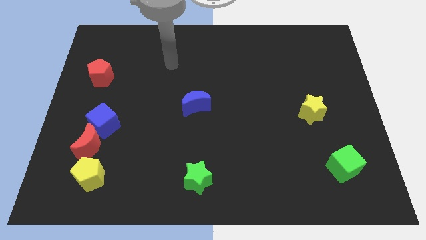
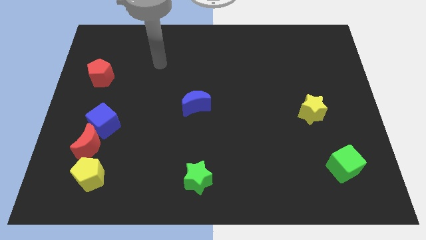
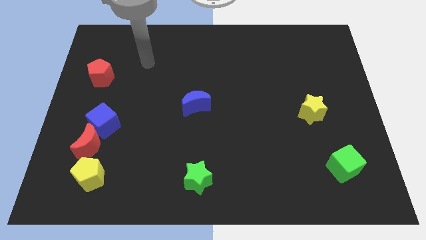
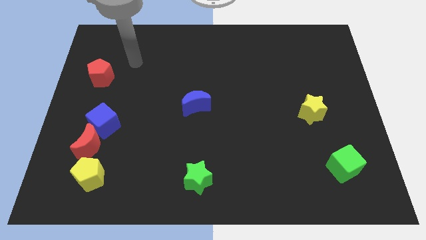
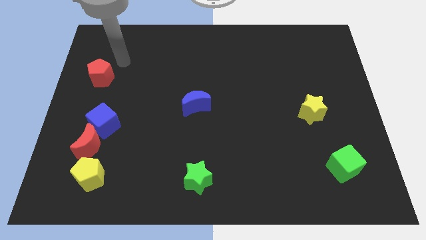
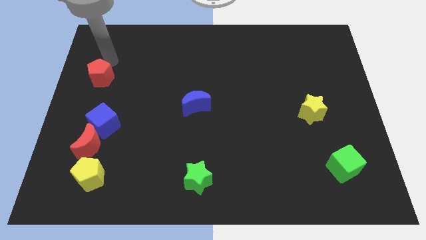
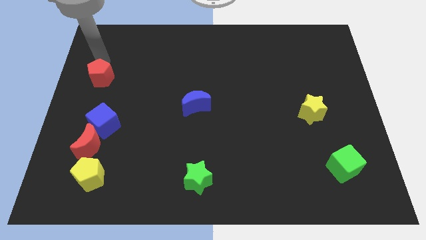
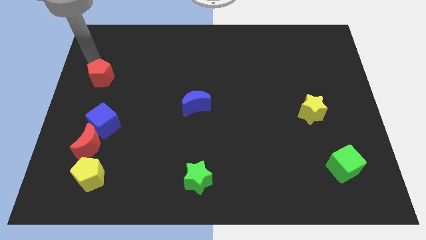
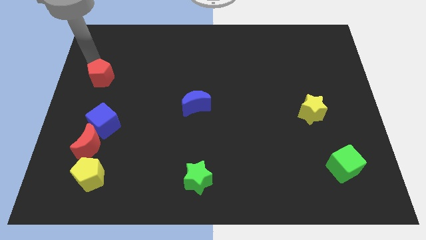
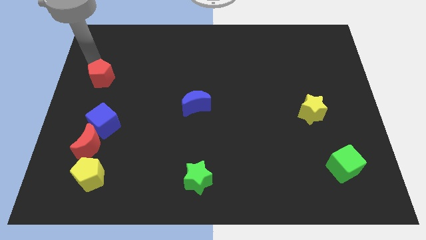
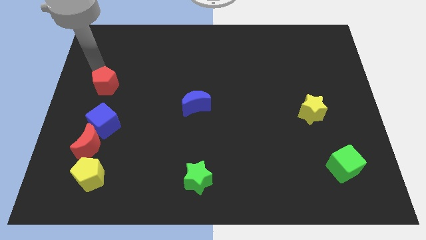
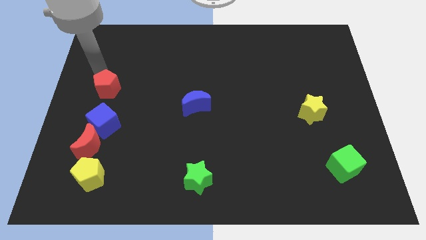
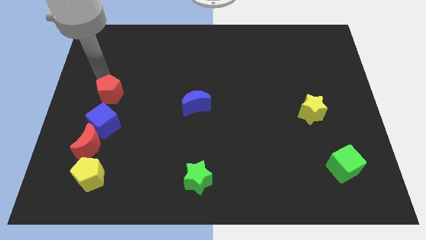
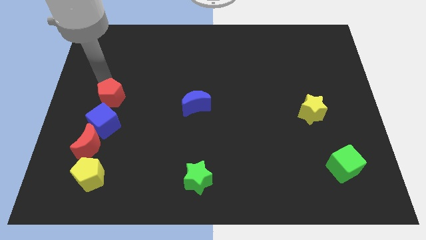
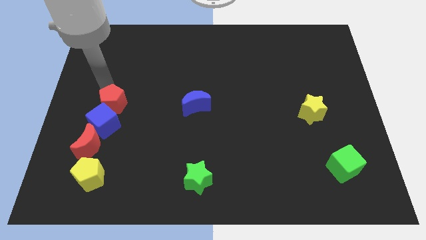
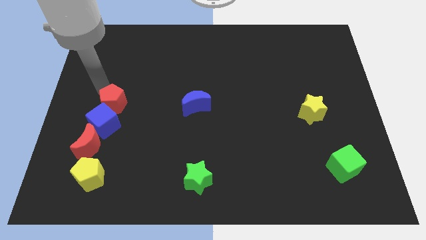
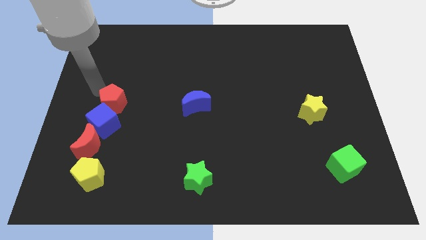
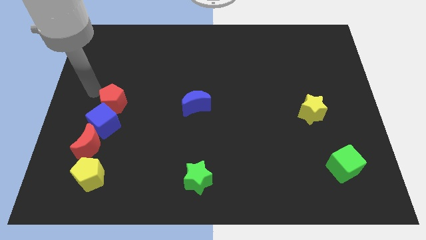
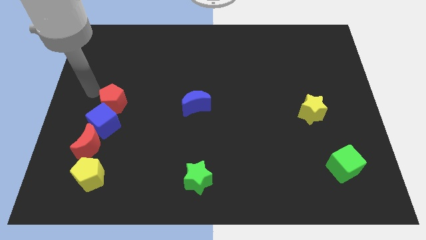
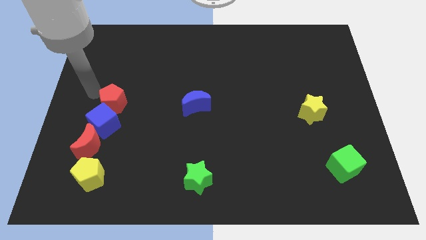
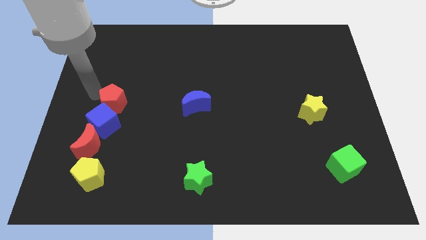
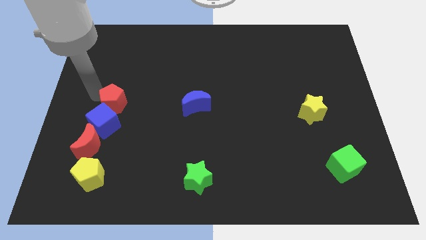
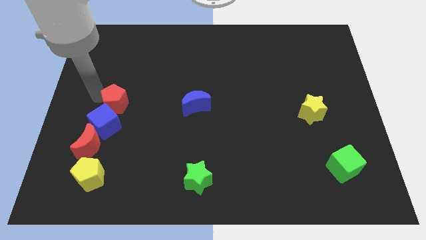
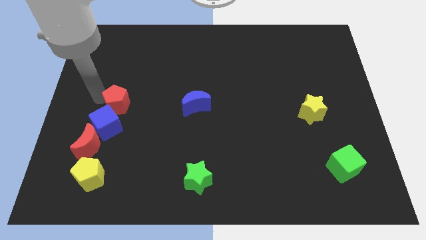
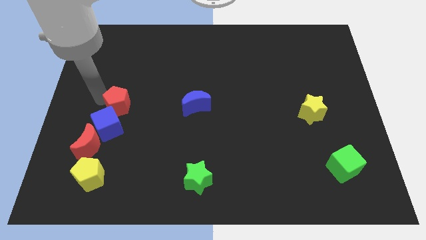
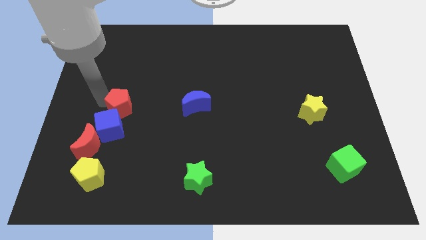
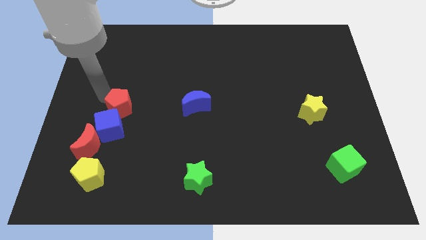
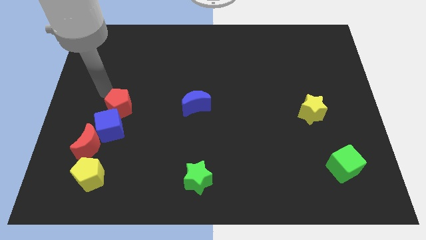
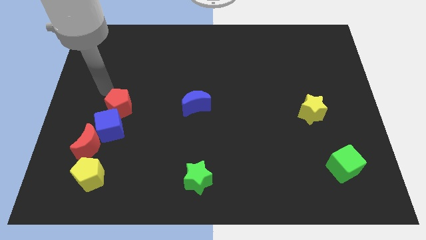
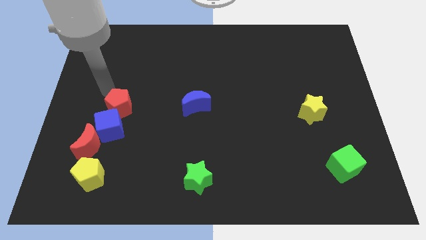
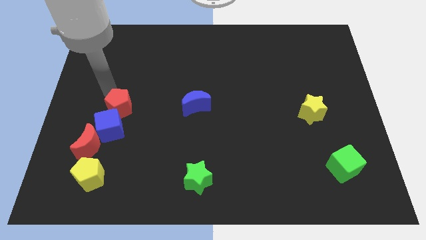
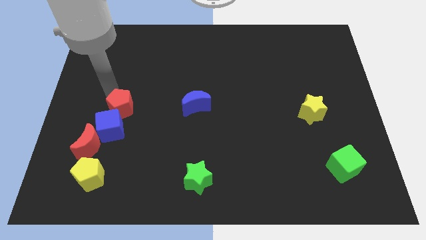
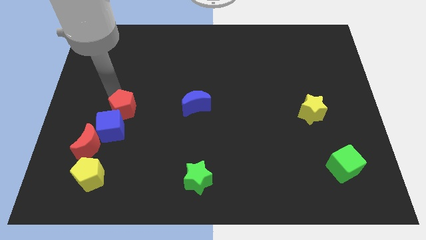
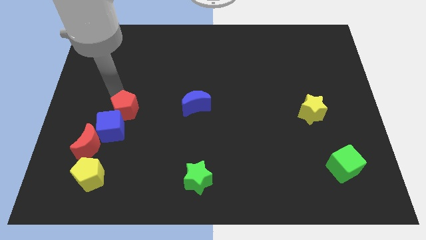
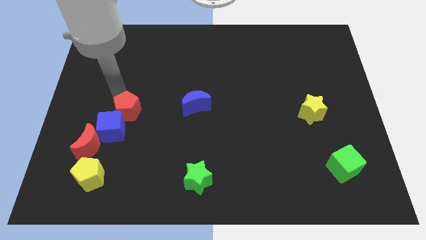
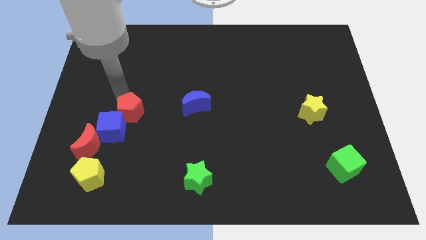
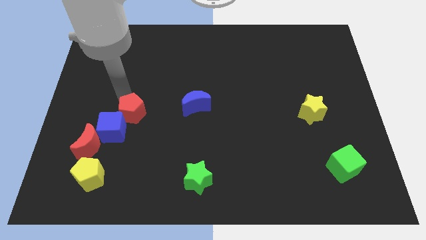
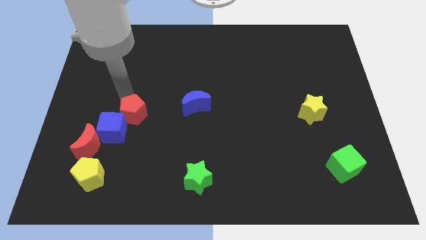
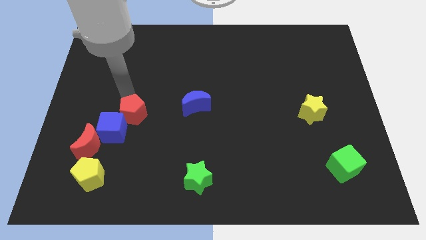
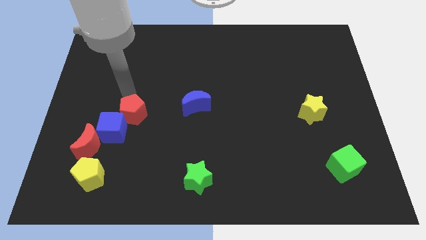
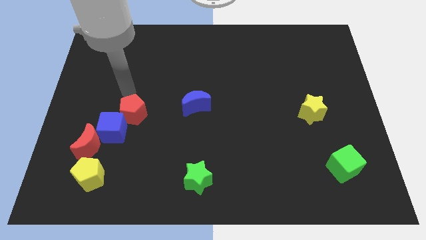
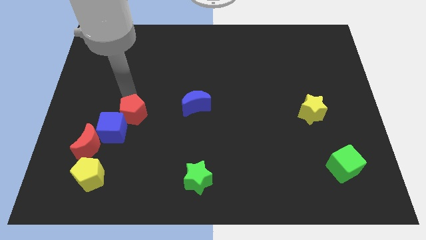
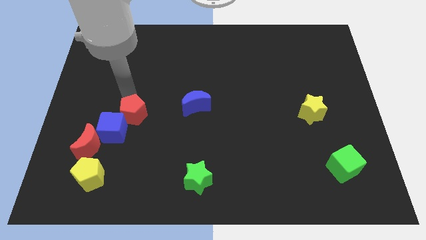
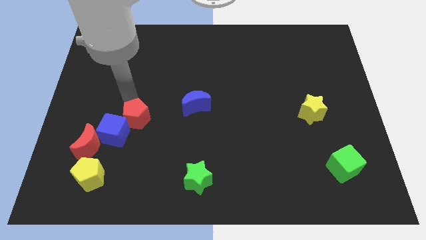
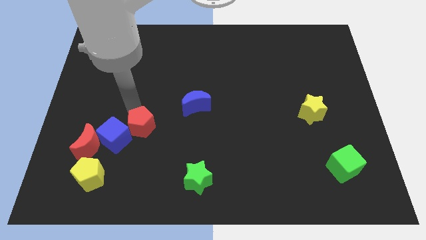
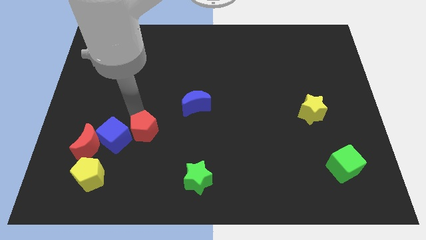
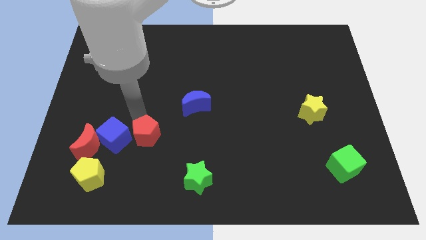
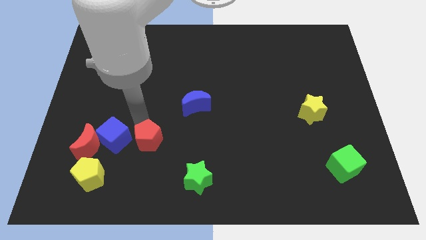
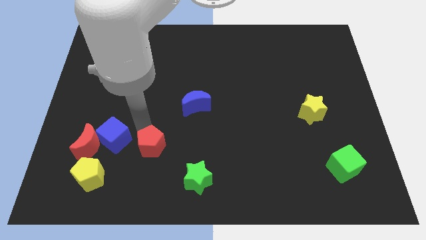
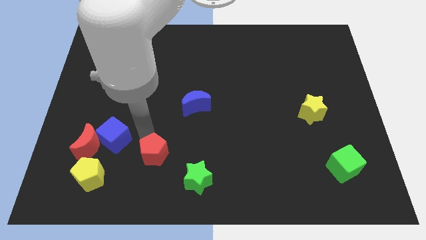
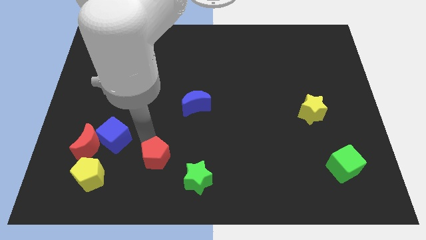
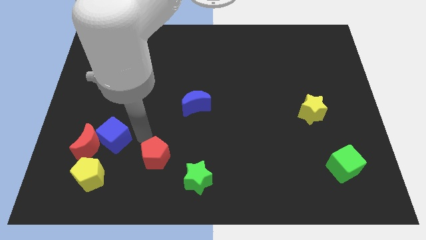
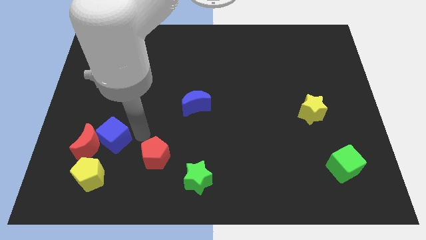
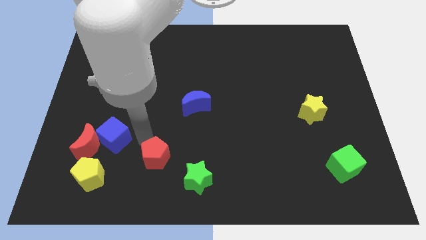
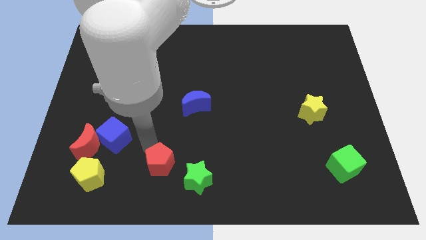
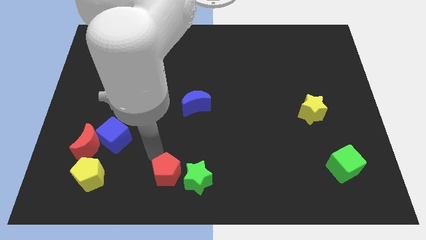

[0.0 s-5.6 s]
move the red pentagon to the bottom side
